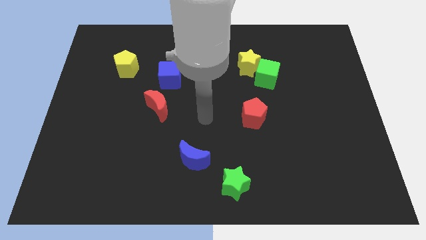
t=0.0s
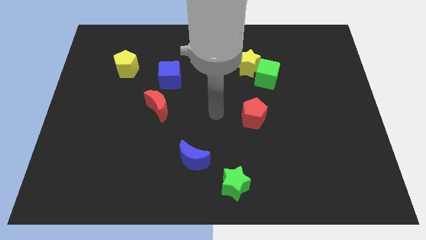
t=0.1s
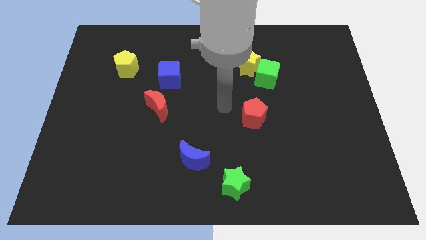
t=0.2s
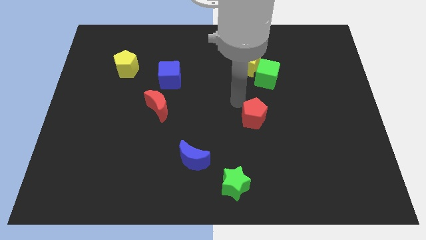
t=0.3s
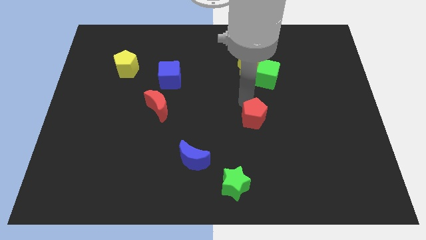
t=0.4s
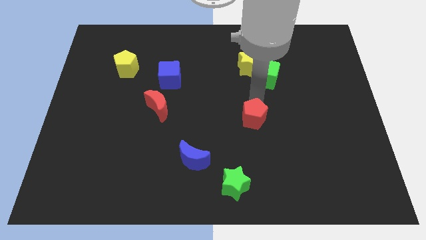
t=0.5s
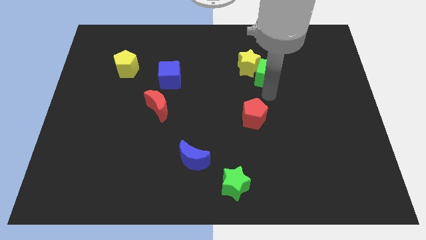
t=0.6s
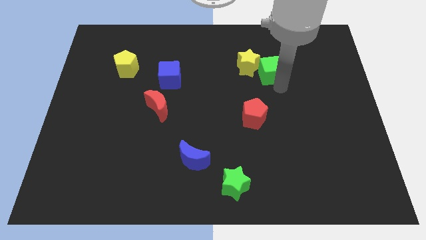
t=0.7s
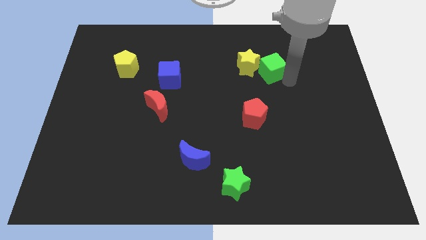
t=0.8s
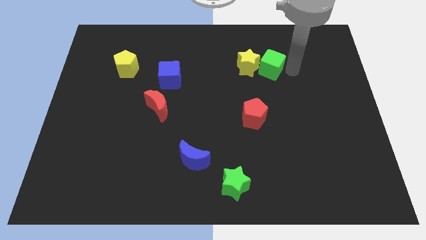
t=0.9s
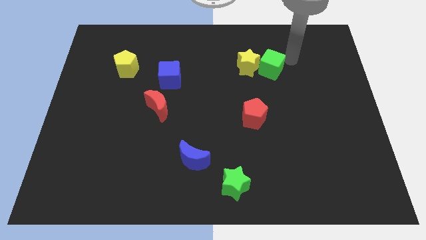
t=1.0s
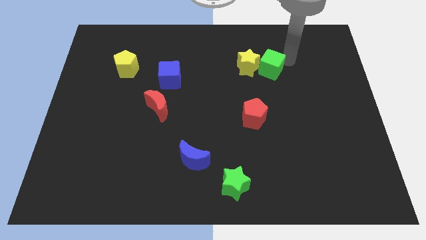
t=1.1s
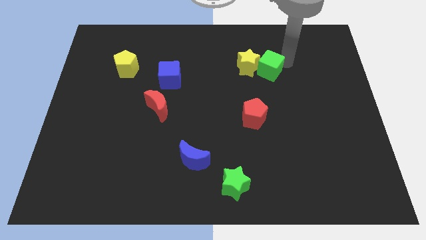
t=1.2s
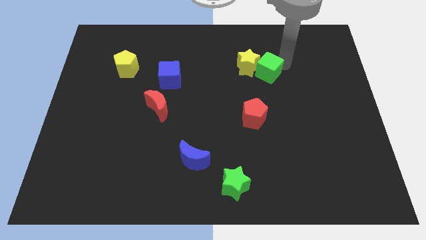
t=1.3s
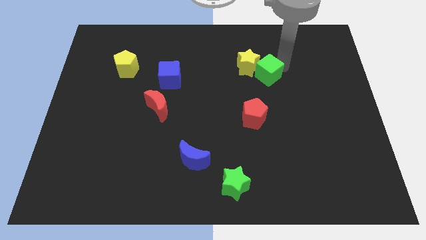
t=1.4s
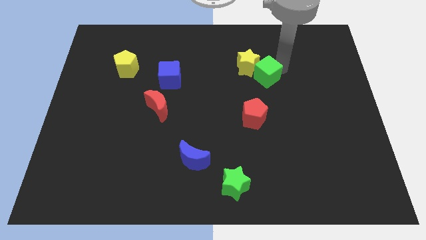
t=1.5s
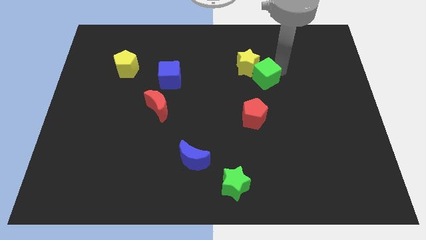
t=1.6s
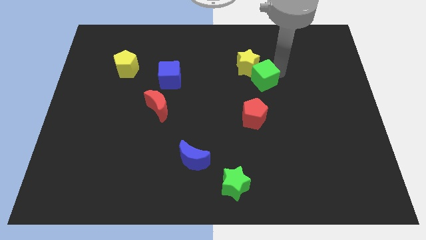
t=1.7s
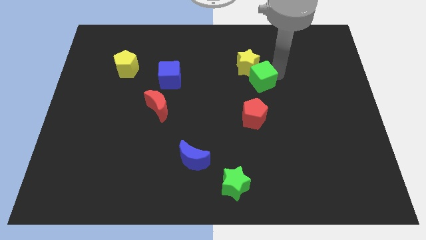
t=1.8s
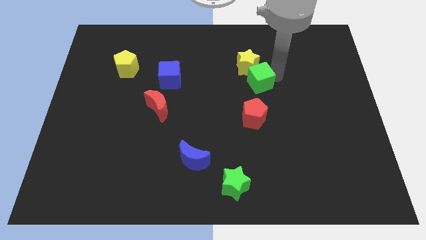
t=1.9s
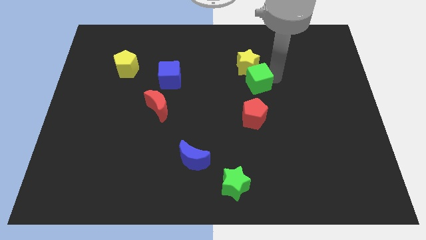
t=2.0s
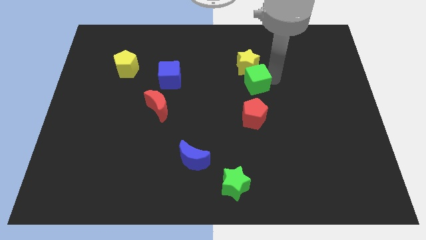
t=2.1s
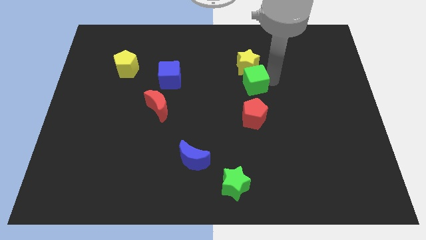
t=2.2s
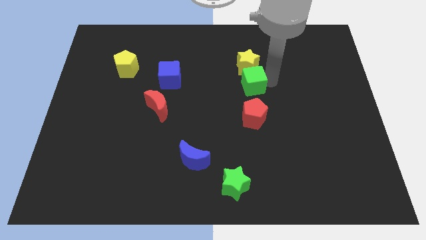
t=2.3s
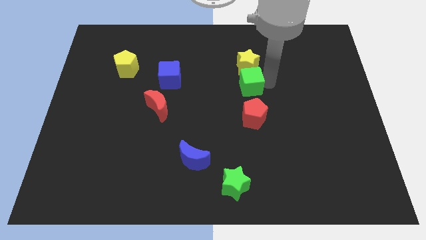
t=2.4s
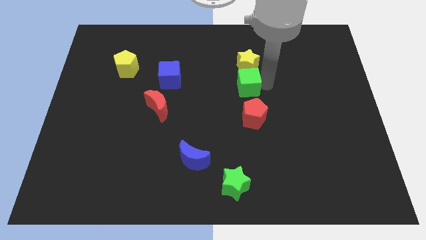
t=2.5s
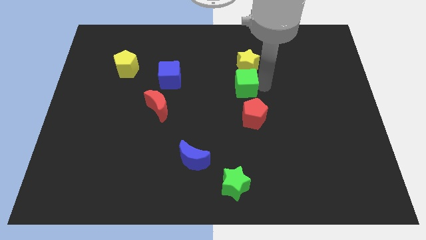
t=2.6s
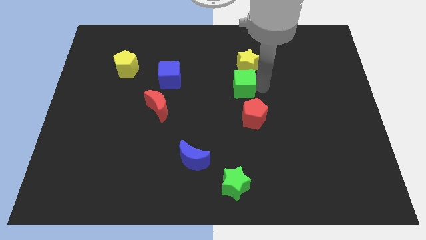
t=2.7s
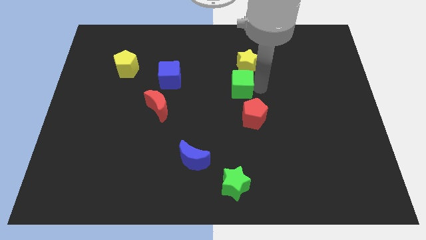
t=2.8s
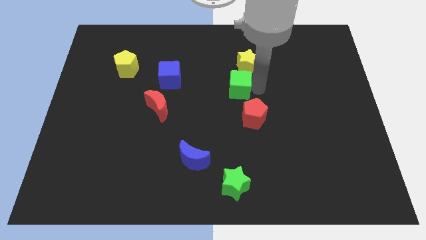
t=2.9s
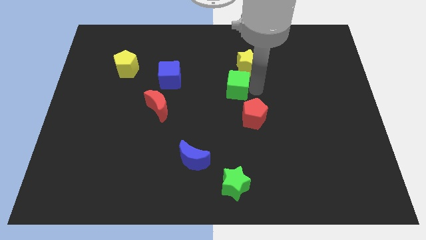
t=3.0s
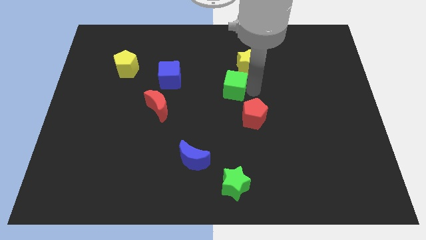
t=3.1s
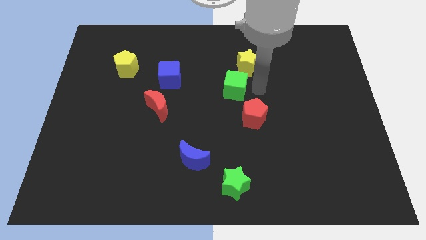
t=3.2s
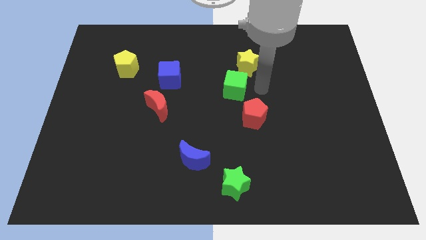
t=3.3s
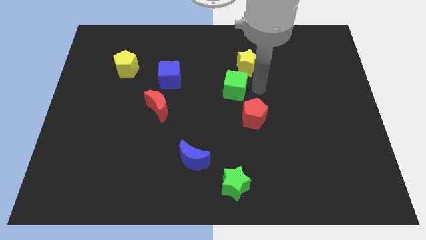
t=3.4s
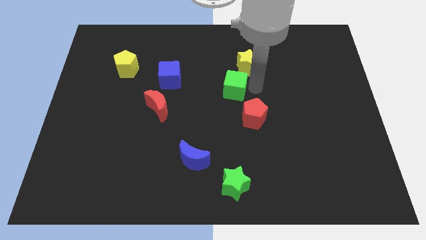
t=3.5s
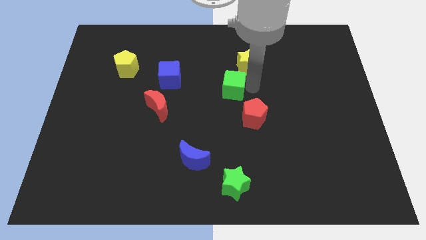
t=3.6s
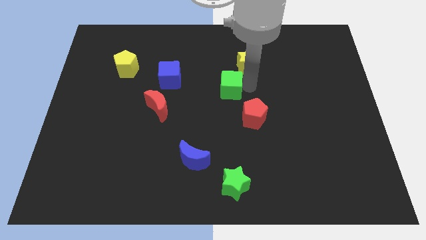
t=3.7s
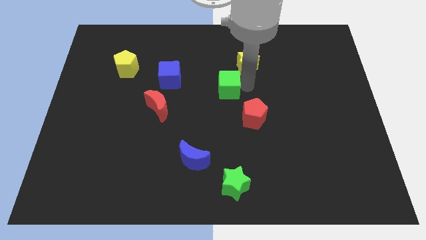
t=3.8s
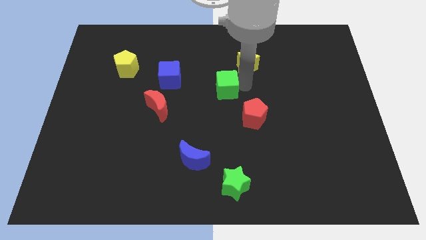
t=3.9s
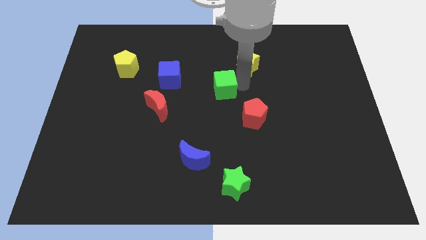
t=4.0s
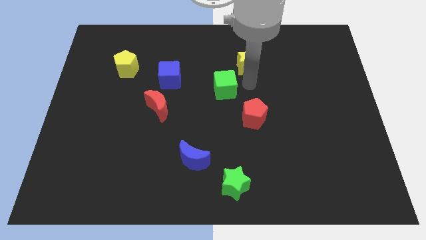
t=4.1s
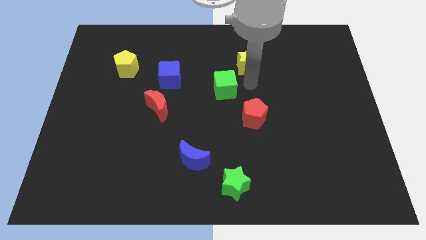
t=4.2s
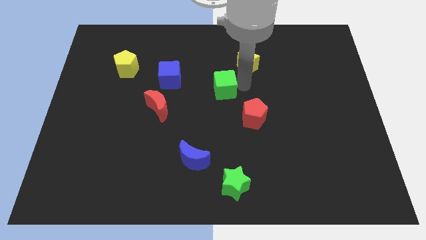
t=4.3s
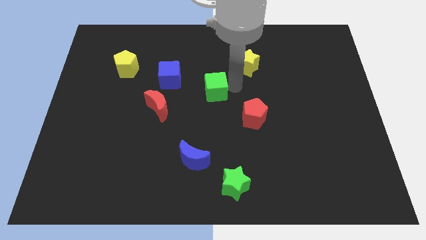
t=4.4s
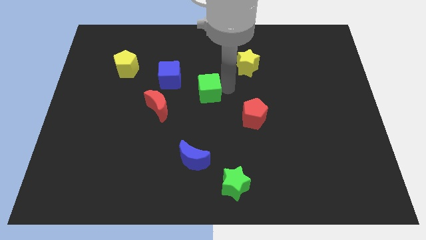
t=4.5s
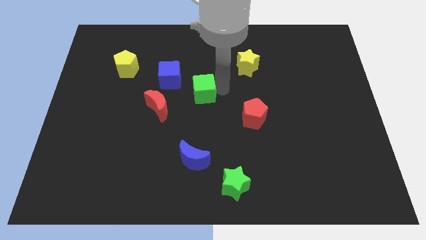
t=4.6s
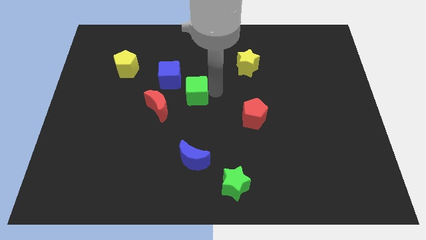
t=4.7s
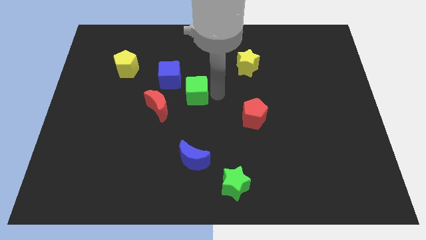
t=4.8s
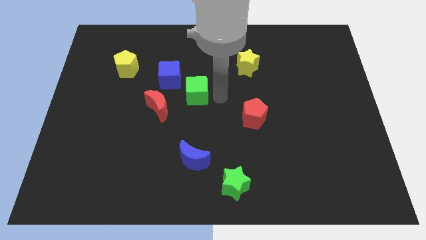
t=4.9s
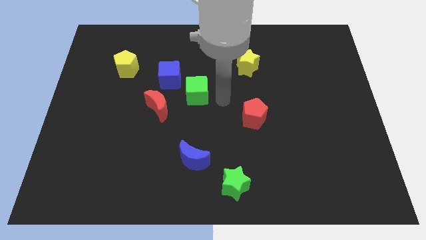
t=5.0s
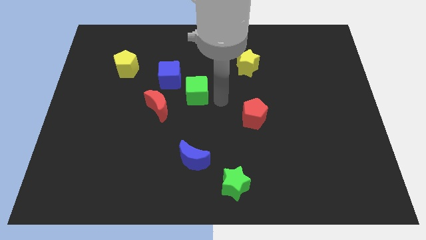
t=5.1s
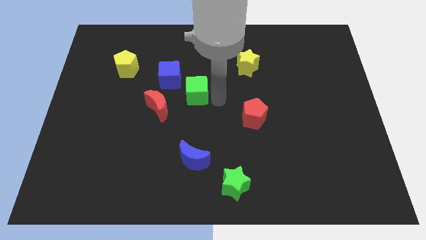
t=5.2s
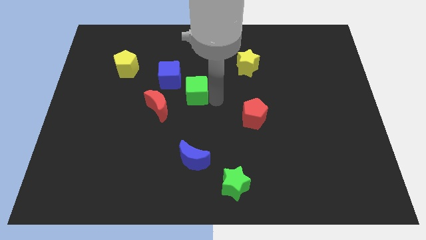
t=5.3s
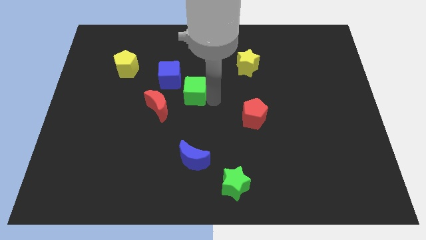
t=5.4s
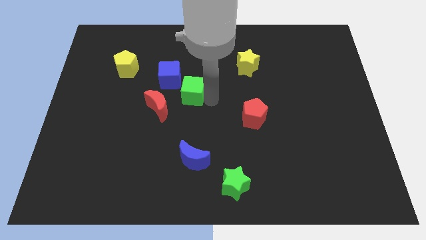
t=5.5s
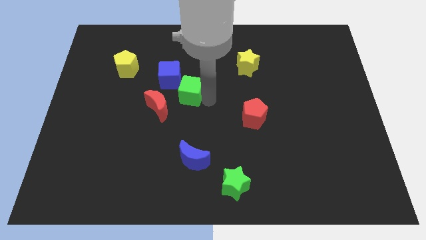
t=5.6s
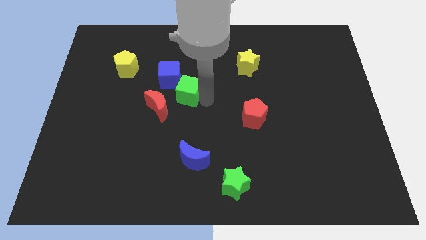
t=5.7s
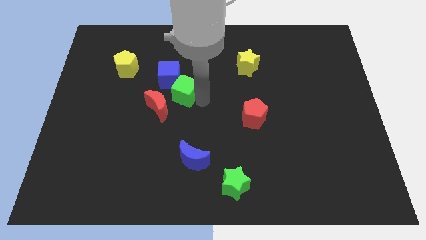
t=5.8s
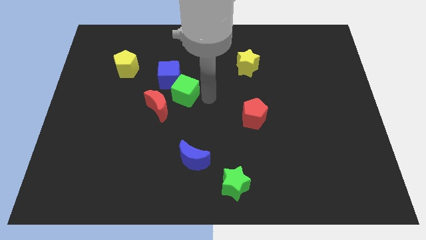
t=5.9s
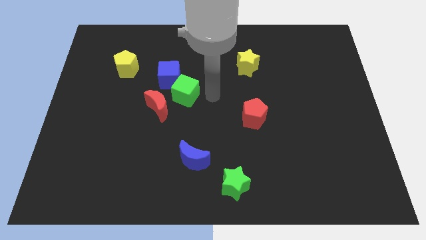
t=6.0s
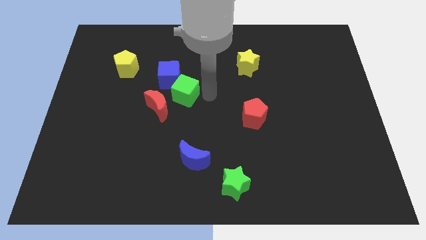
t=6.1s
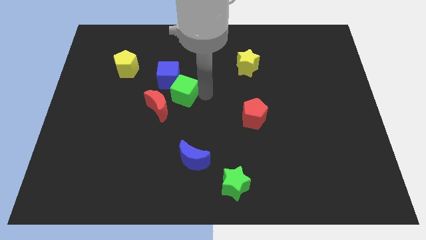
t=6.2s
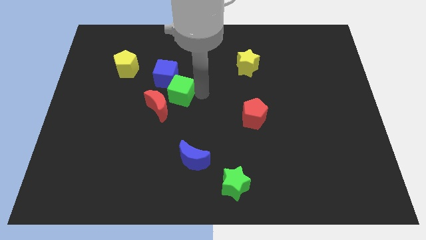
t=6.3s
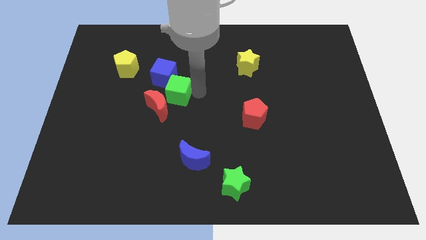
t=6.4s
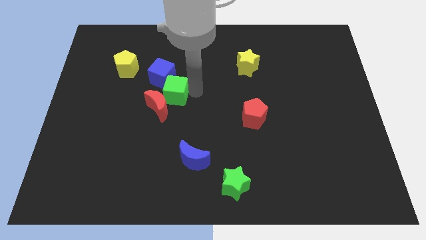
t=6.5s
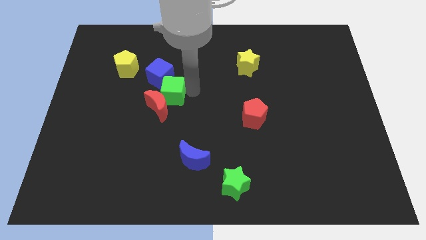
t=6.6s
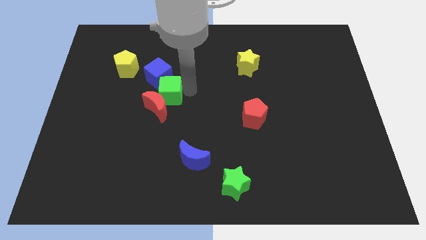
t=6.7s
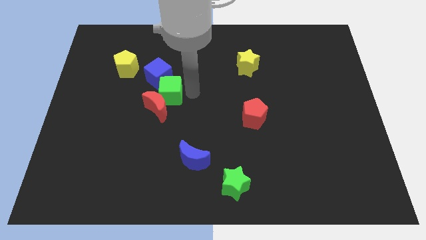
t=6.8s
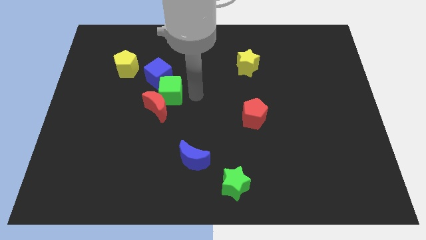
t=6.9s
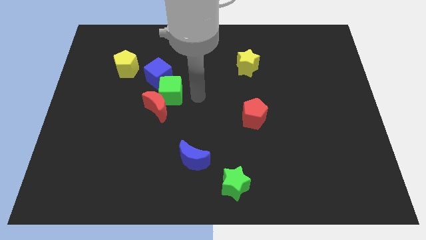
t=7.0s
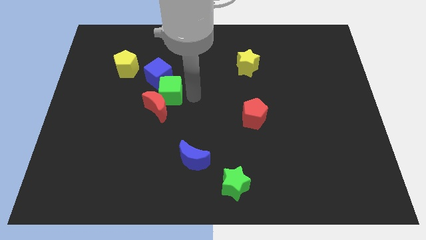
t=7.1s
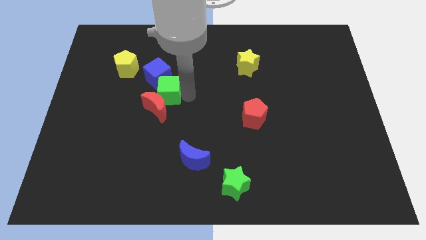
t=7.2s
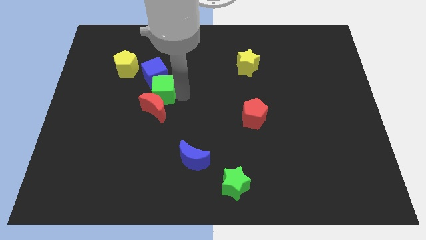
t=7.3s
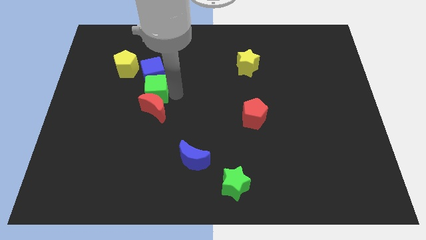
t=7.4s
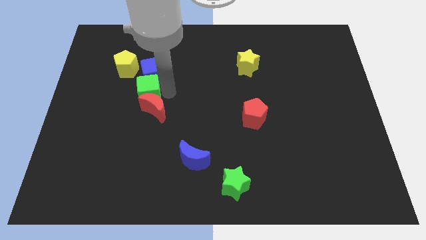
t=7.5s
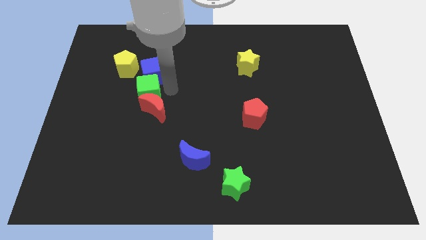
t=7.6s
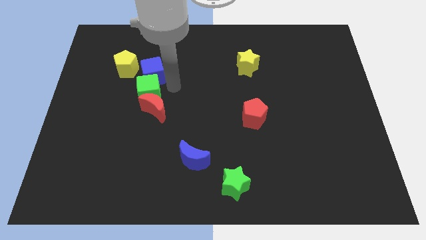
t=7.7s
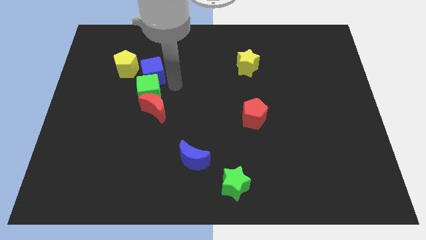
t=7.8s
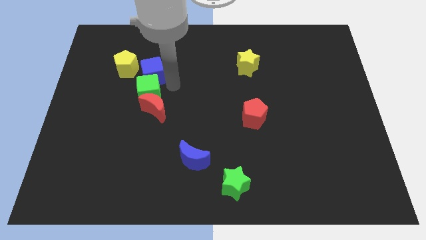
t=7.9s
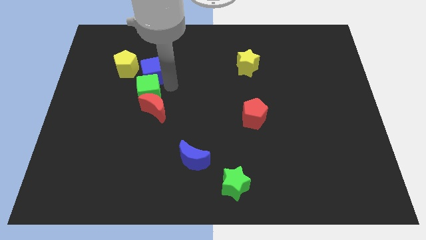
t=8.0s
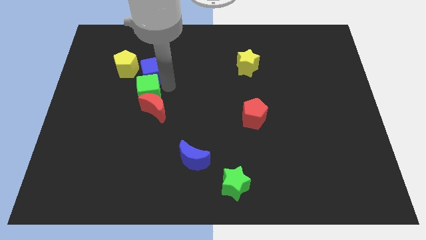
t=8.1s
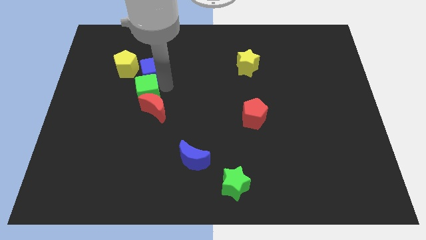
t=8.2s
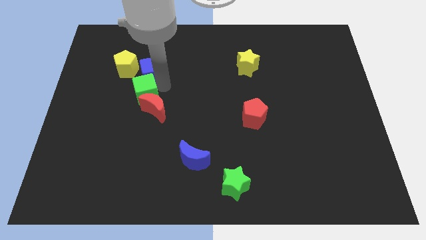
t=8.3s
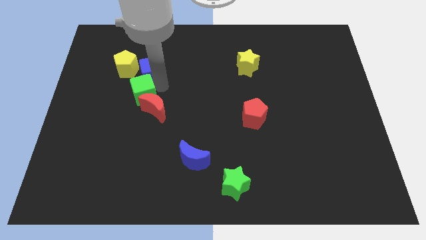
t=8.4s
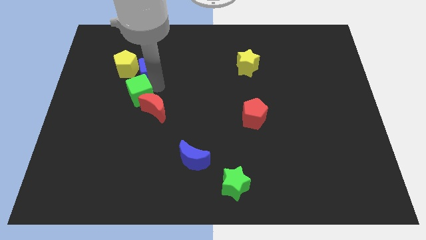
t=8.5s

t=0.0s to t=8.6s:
push the green cube just left of the red moon
